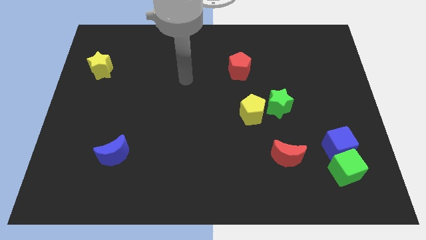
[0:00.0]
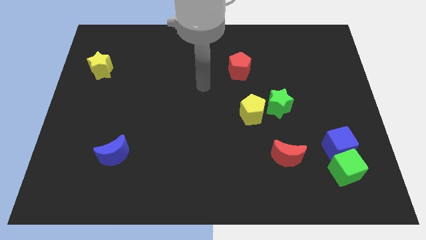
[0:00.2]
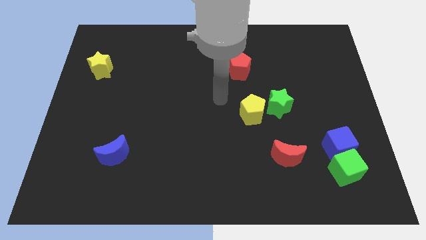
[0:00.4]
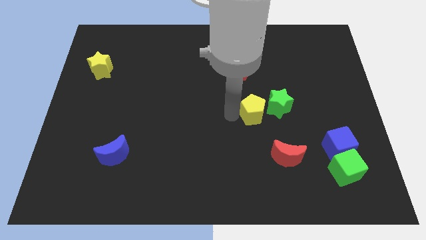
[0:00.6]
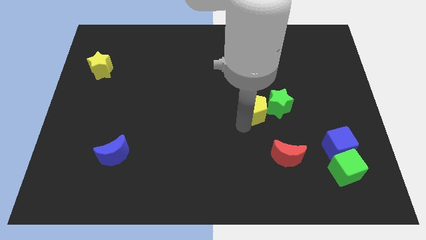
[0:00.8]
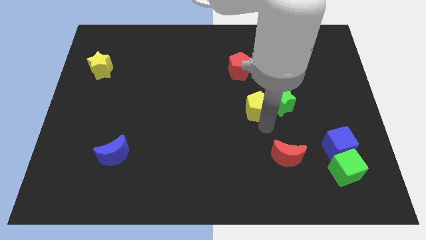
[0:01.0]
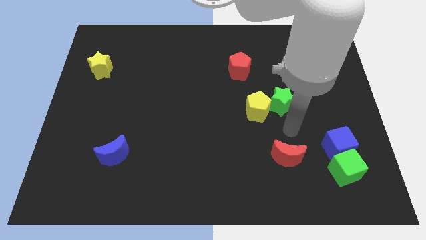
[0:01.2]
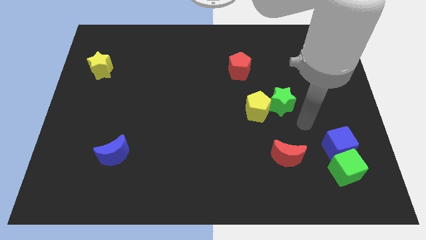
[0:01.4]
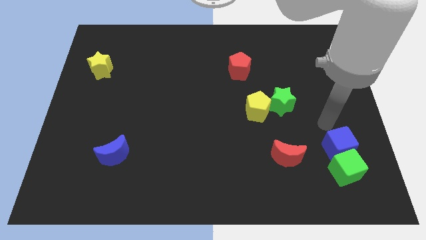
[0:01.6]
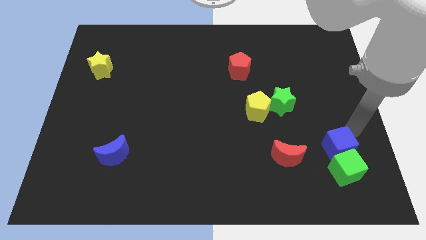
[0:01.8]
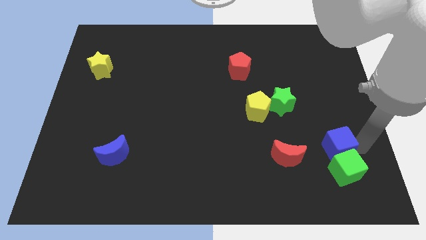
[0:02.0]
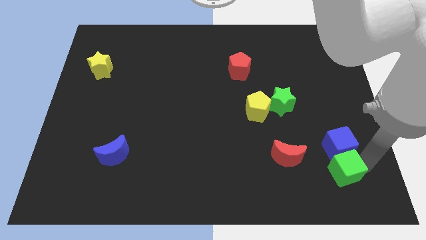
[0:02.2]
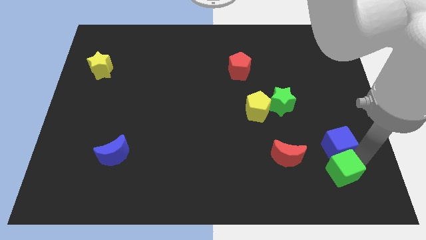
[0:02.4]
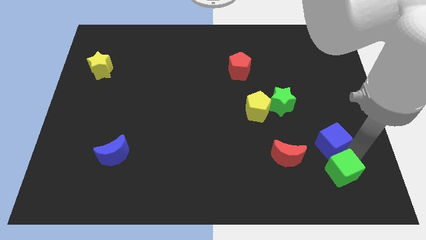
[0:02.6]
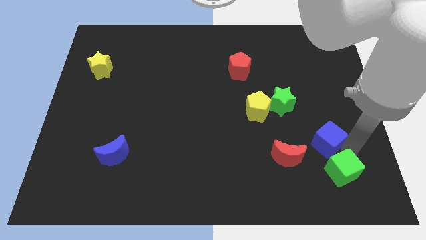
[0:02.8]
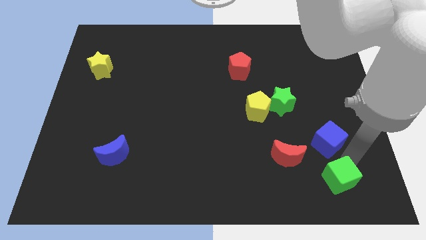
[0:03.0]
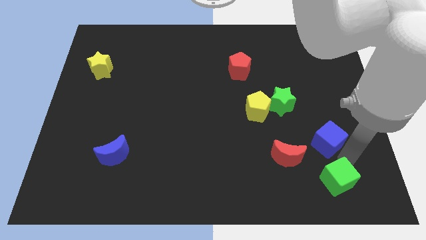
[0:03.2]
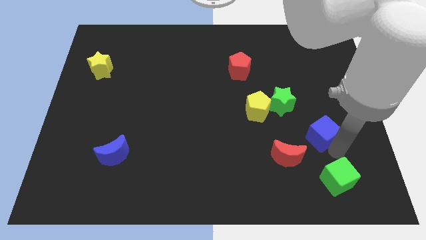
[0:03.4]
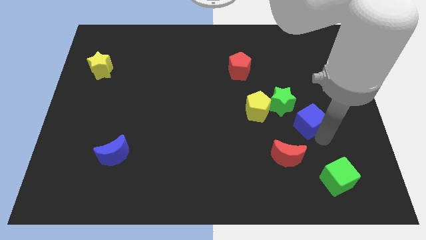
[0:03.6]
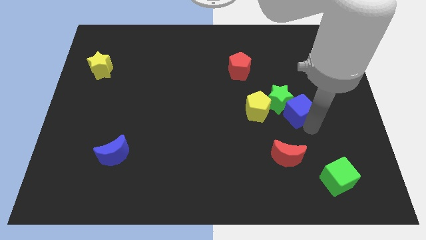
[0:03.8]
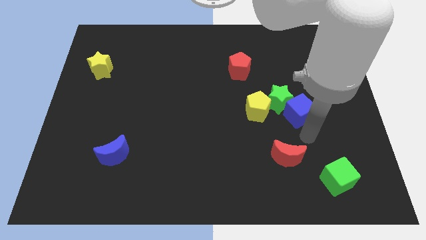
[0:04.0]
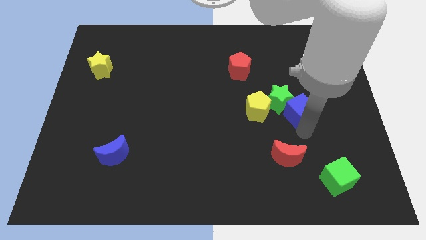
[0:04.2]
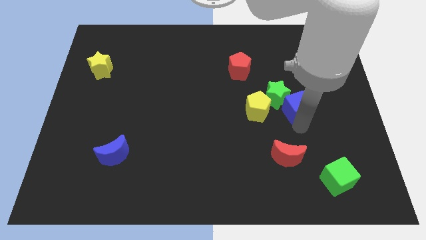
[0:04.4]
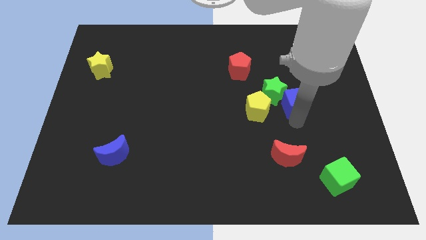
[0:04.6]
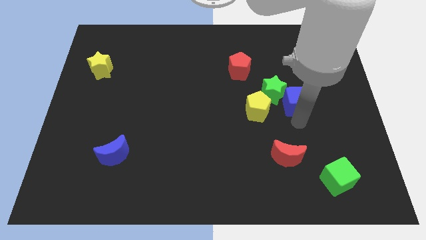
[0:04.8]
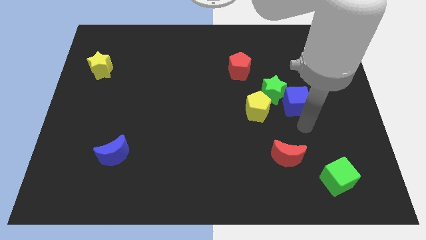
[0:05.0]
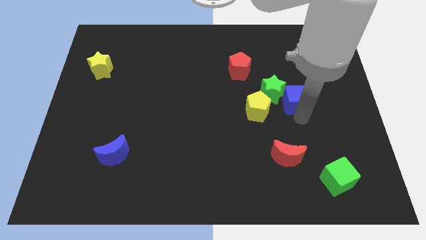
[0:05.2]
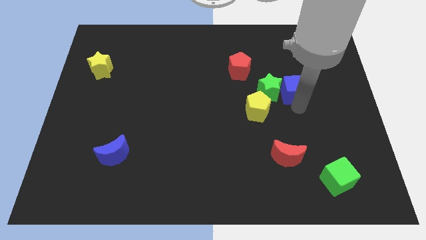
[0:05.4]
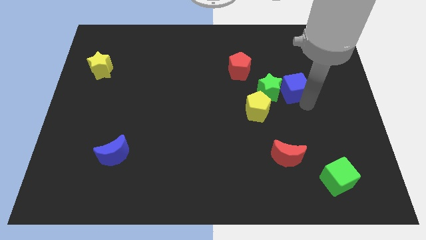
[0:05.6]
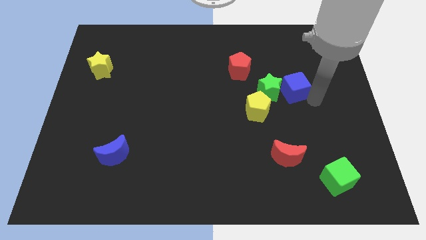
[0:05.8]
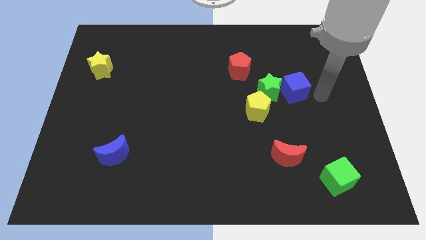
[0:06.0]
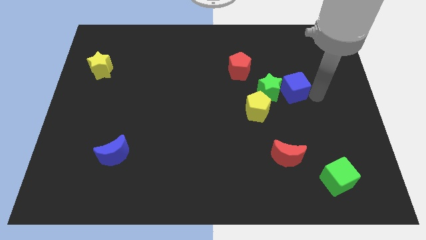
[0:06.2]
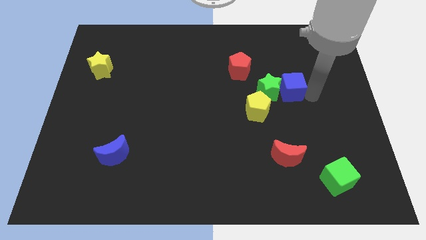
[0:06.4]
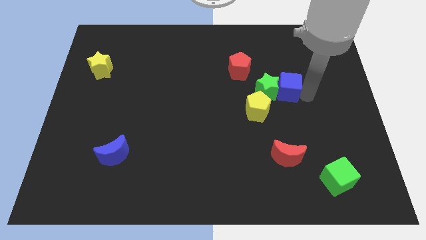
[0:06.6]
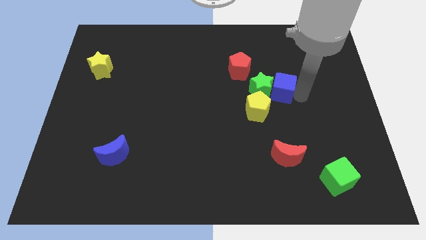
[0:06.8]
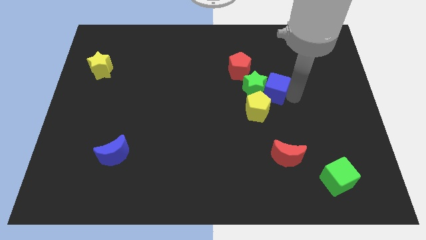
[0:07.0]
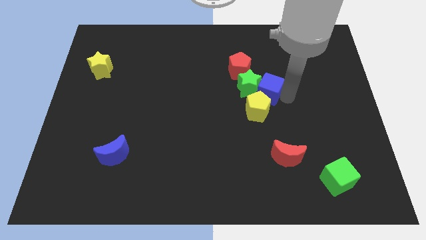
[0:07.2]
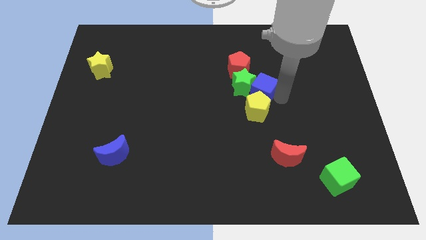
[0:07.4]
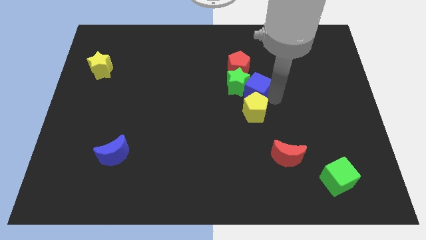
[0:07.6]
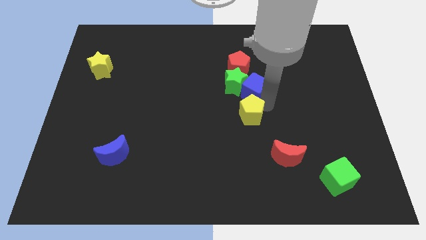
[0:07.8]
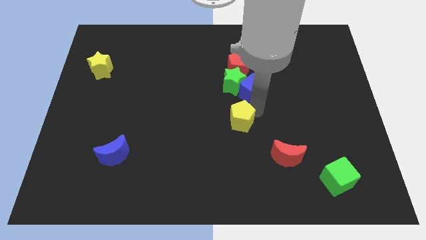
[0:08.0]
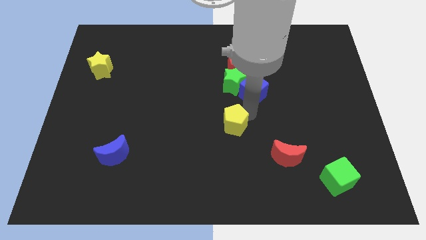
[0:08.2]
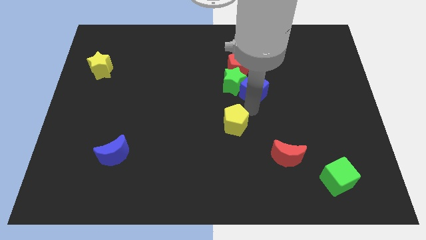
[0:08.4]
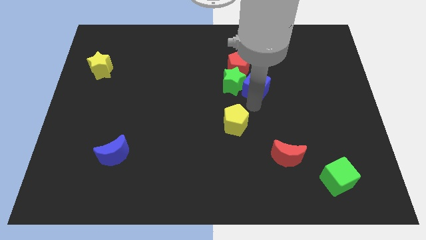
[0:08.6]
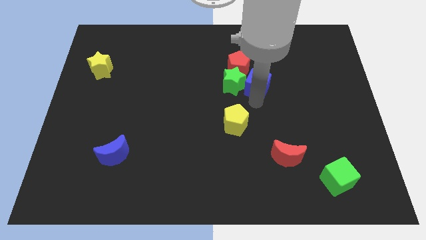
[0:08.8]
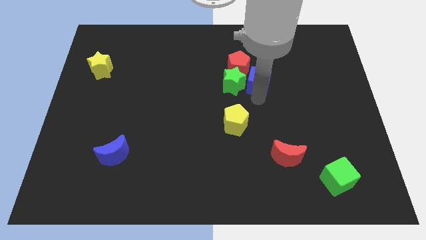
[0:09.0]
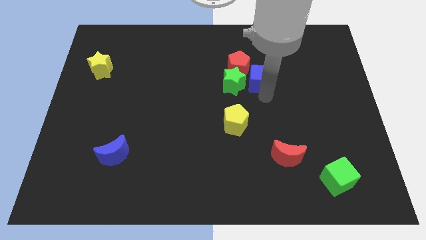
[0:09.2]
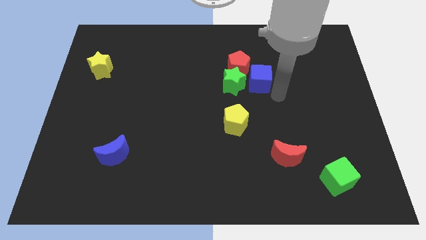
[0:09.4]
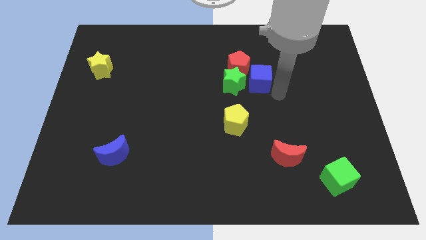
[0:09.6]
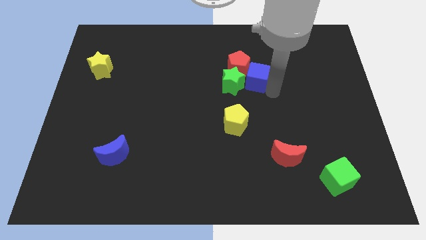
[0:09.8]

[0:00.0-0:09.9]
move the blue cube towards the red pentagon

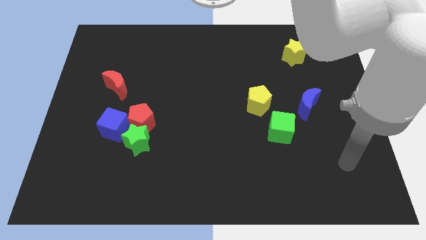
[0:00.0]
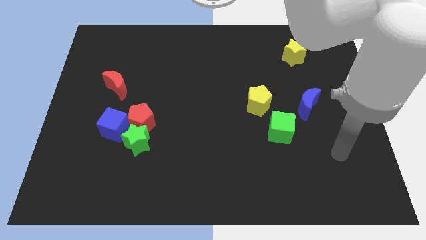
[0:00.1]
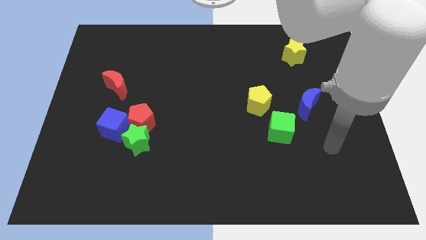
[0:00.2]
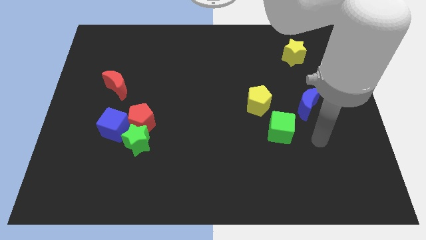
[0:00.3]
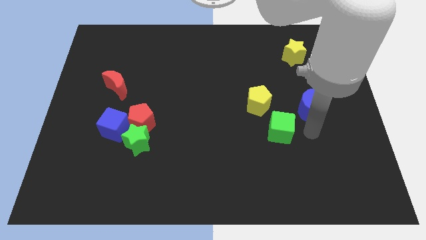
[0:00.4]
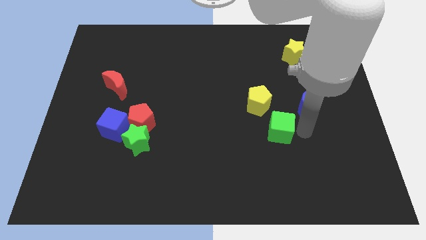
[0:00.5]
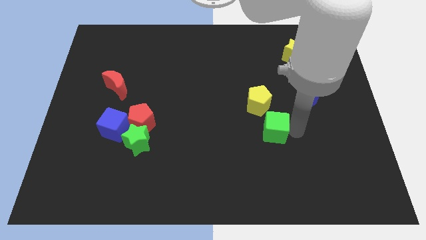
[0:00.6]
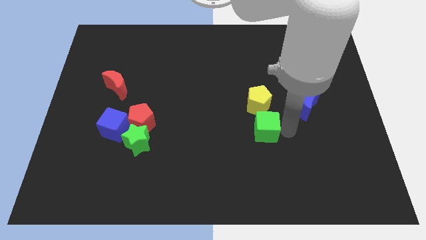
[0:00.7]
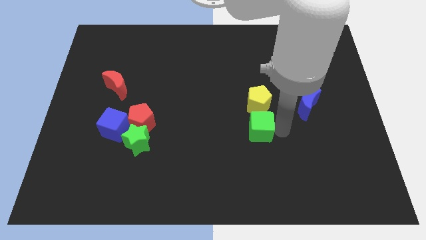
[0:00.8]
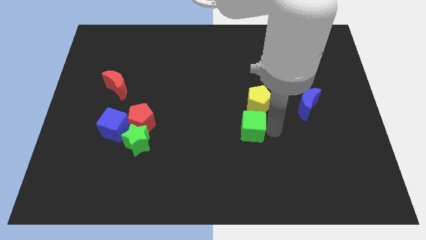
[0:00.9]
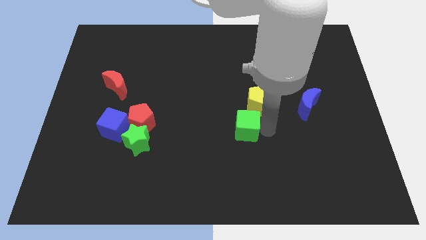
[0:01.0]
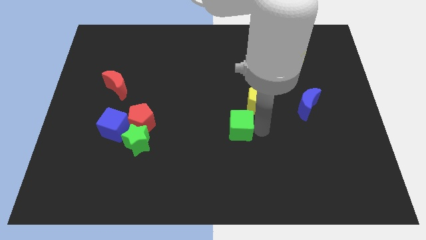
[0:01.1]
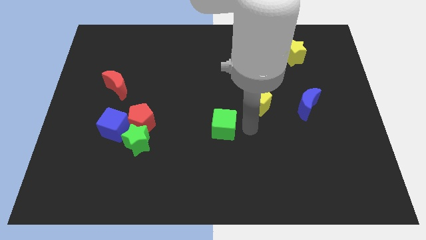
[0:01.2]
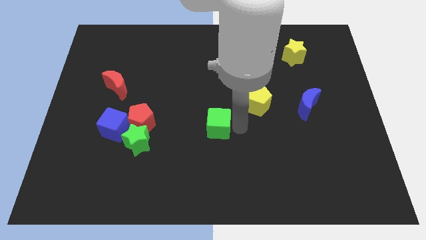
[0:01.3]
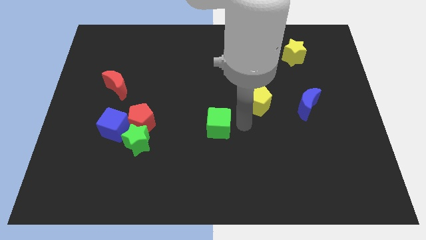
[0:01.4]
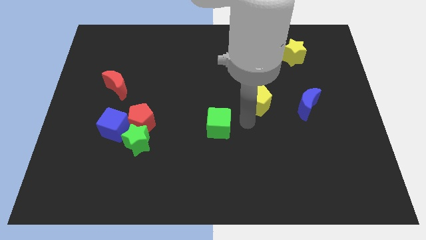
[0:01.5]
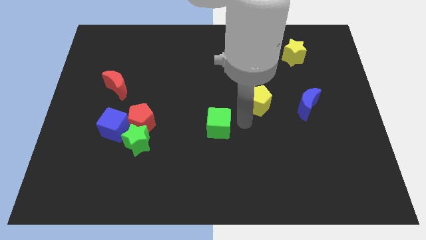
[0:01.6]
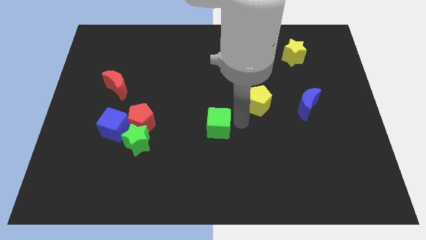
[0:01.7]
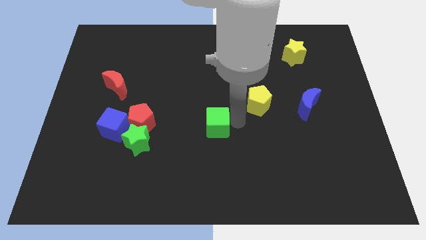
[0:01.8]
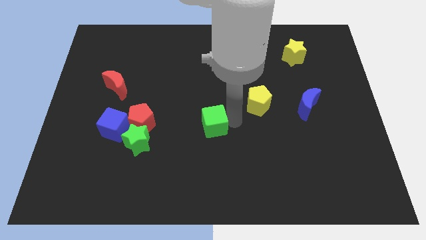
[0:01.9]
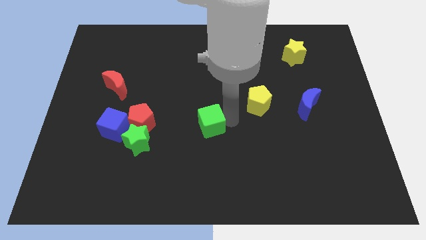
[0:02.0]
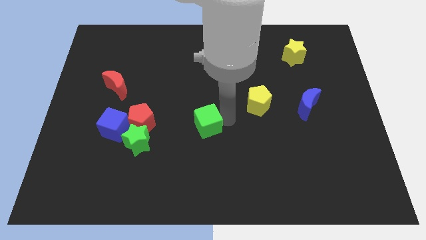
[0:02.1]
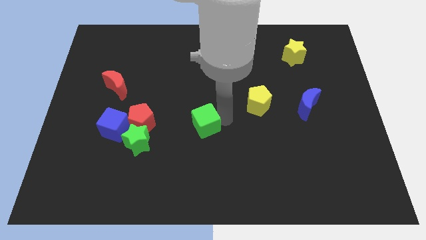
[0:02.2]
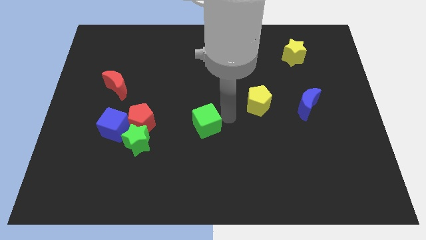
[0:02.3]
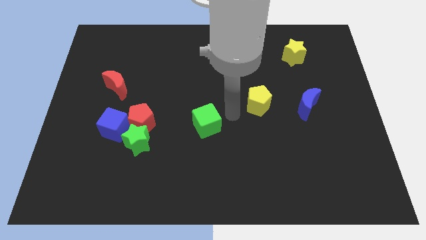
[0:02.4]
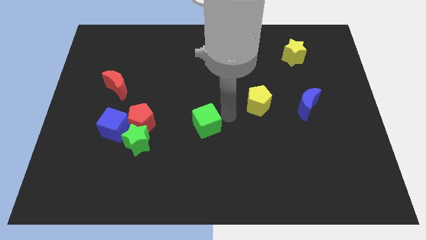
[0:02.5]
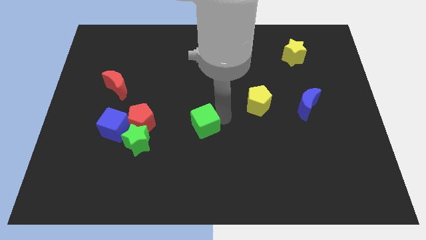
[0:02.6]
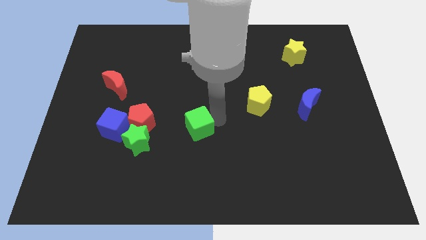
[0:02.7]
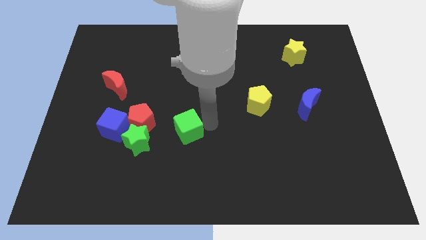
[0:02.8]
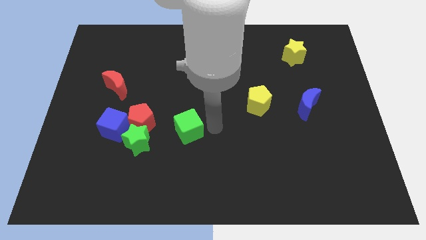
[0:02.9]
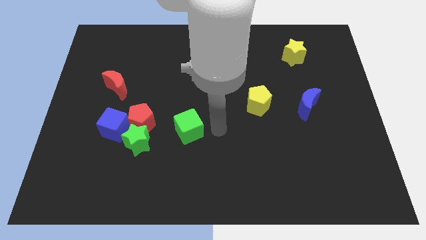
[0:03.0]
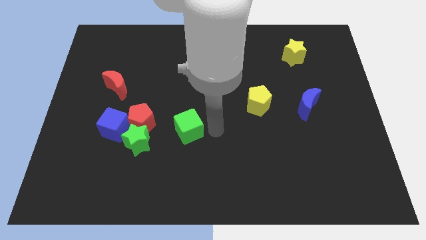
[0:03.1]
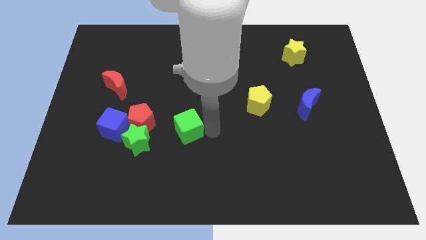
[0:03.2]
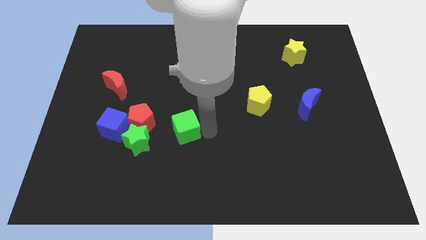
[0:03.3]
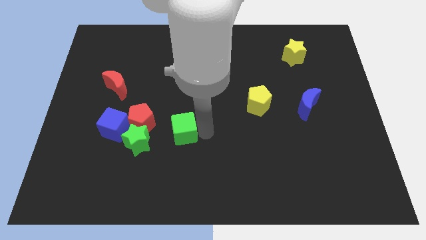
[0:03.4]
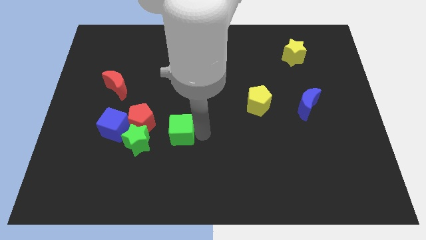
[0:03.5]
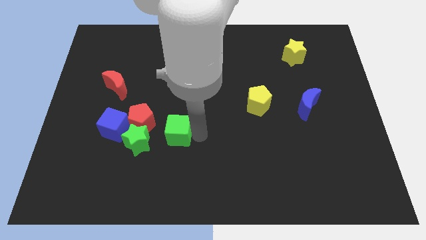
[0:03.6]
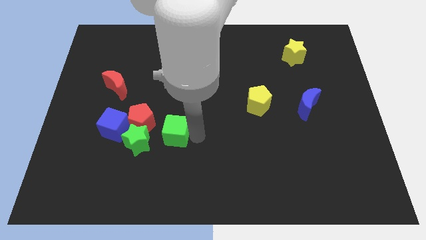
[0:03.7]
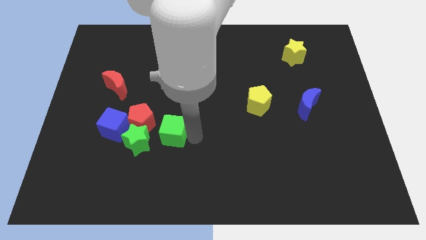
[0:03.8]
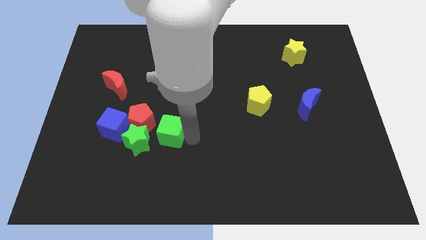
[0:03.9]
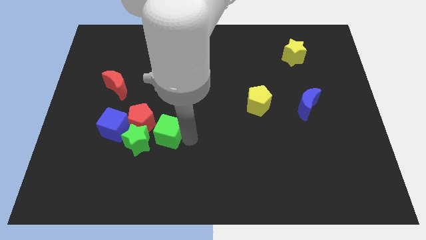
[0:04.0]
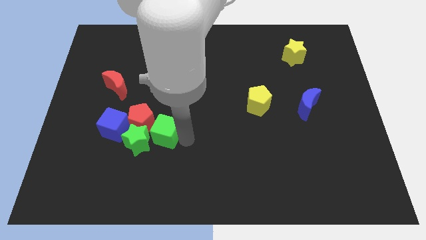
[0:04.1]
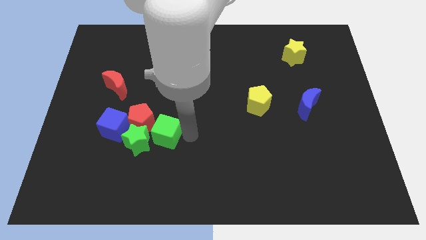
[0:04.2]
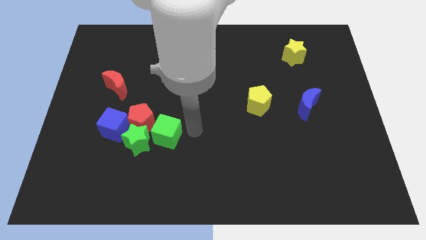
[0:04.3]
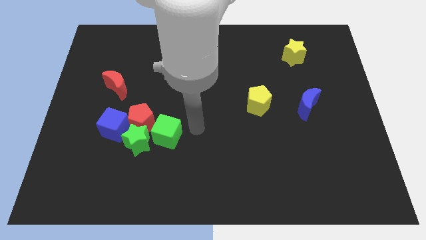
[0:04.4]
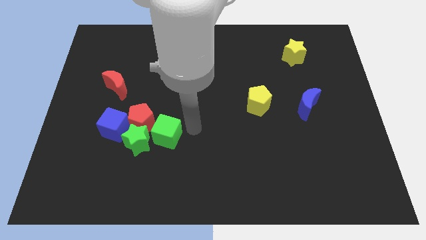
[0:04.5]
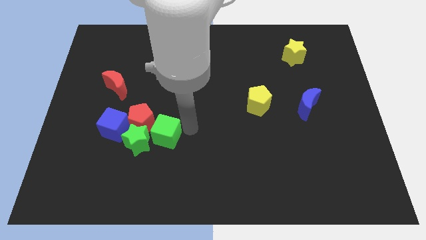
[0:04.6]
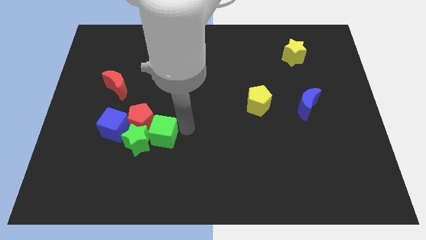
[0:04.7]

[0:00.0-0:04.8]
push the green cube close to the green star
